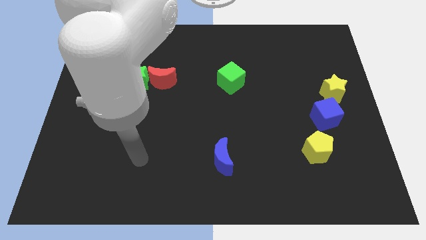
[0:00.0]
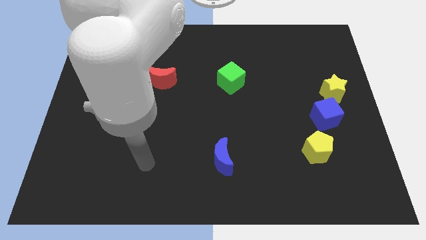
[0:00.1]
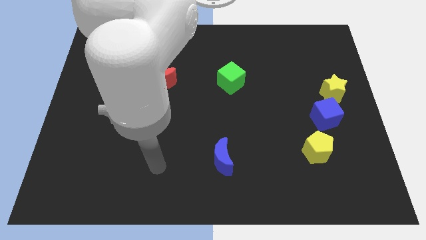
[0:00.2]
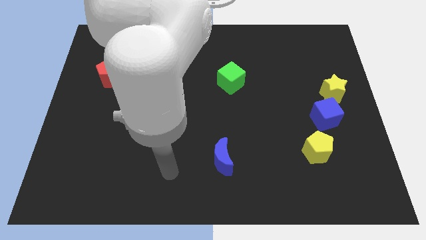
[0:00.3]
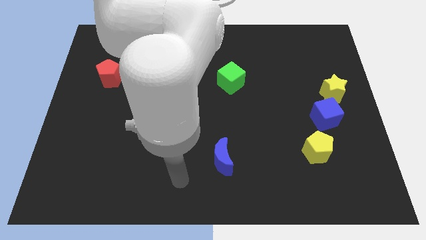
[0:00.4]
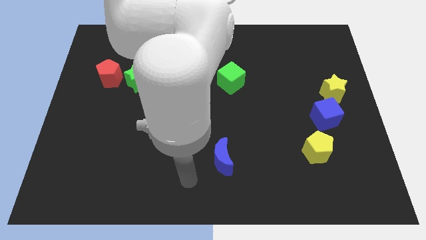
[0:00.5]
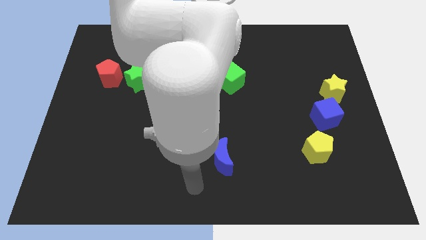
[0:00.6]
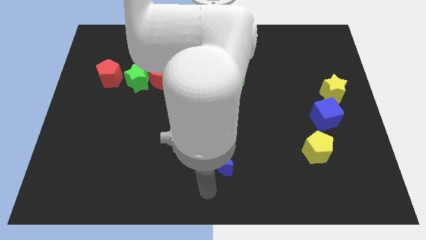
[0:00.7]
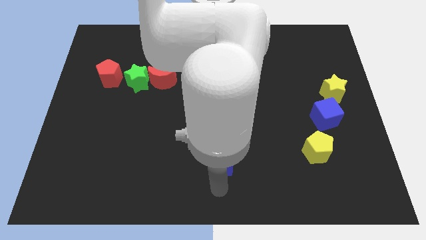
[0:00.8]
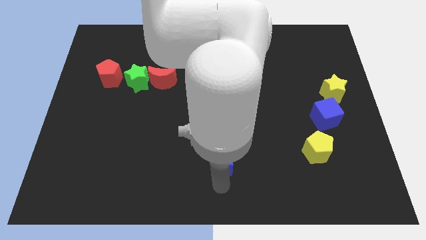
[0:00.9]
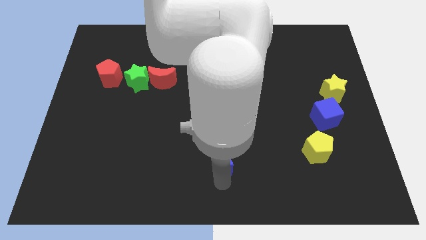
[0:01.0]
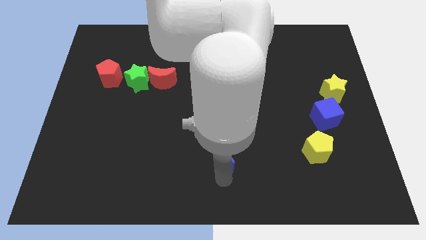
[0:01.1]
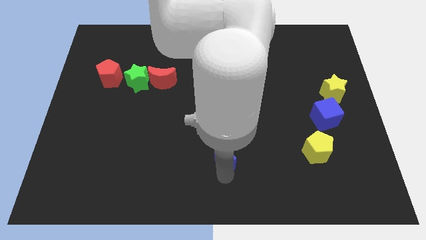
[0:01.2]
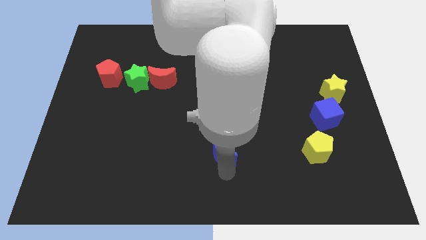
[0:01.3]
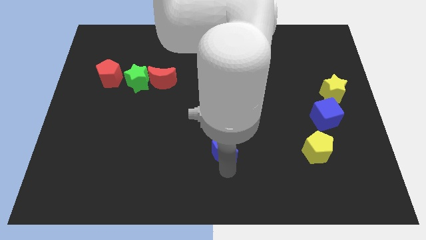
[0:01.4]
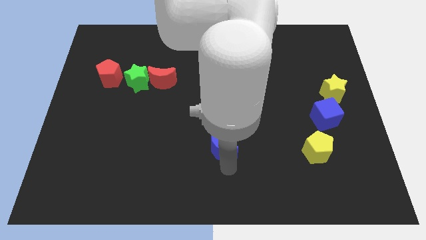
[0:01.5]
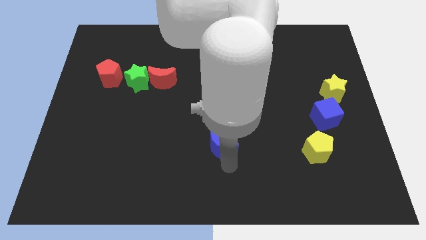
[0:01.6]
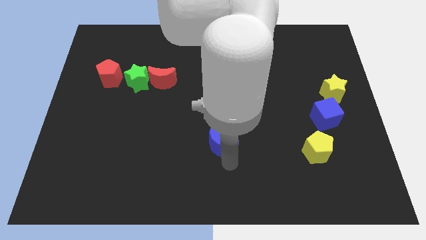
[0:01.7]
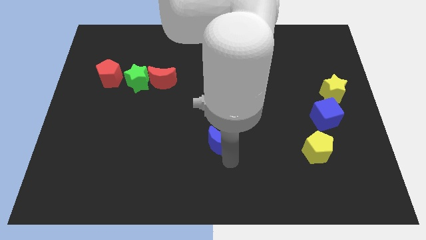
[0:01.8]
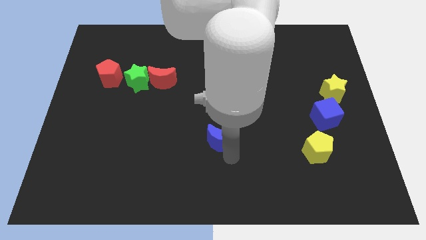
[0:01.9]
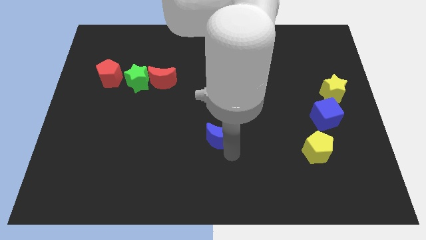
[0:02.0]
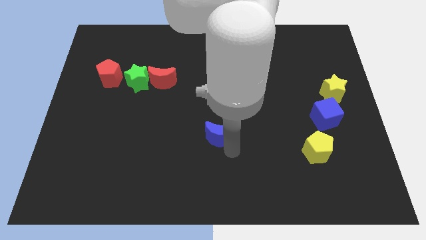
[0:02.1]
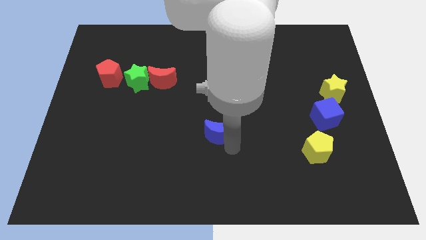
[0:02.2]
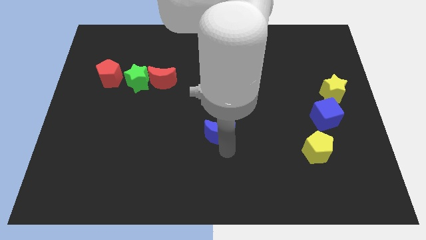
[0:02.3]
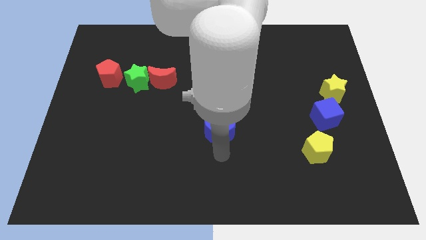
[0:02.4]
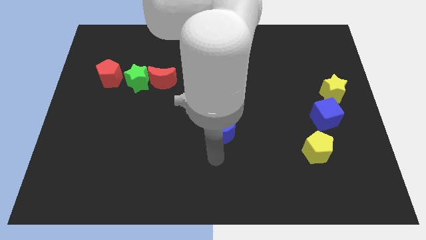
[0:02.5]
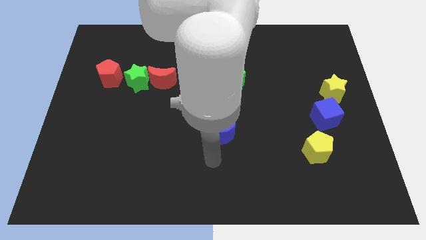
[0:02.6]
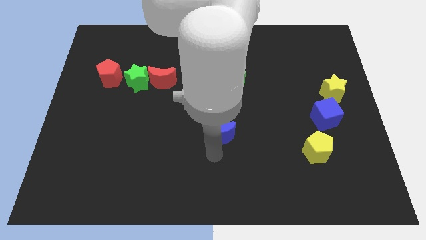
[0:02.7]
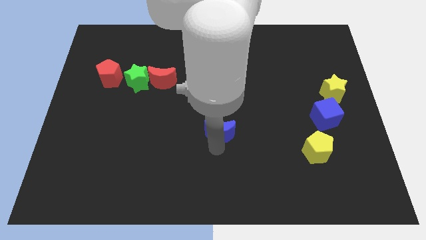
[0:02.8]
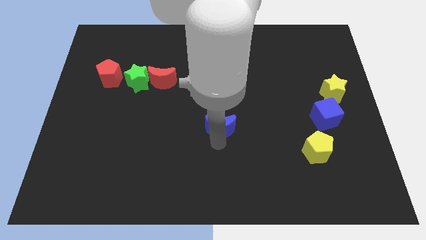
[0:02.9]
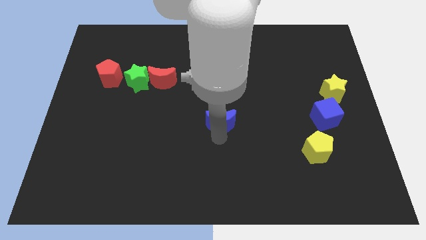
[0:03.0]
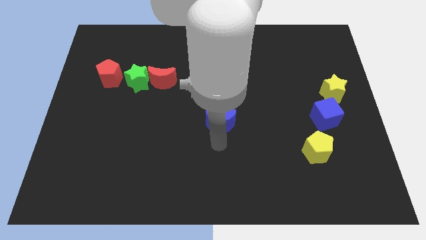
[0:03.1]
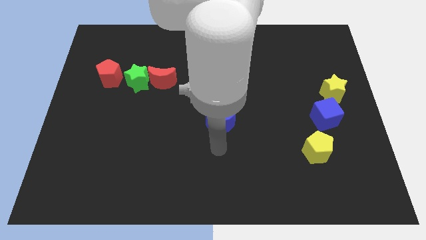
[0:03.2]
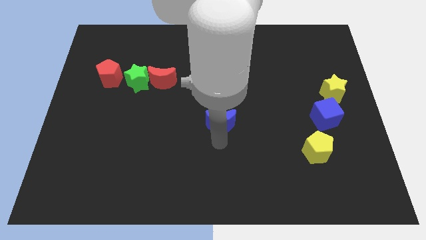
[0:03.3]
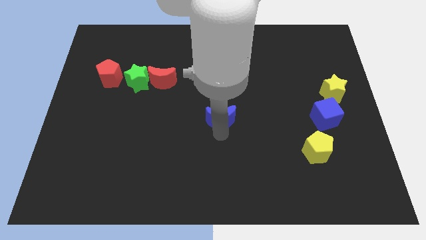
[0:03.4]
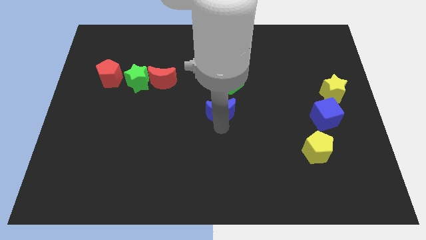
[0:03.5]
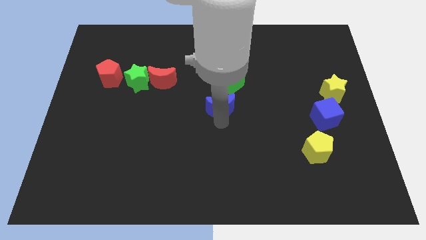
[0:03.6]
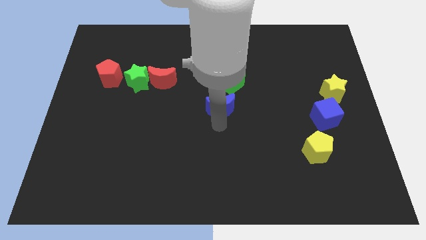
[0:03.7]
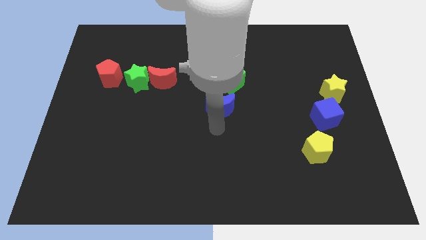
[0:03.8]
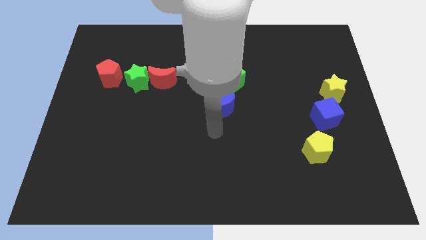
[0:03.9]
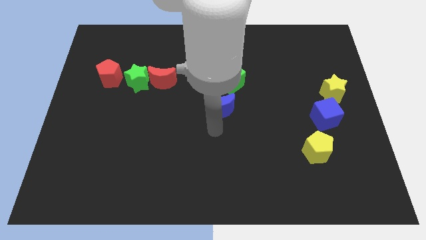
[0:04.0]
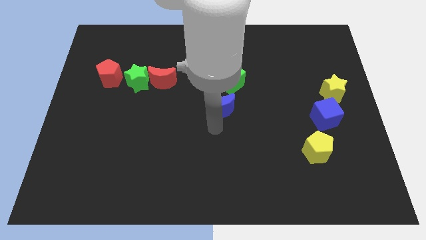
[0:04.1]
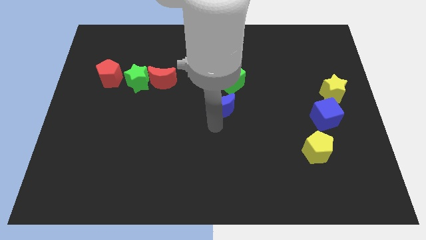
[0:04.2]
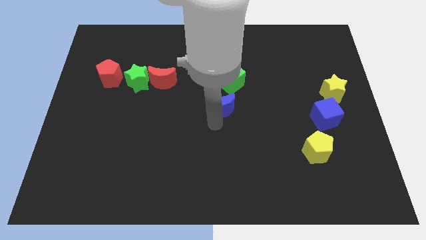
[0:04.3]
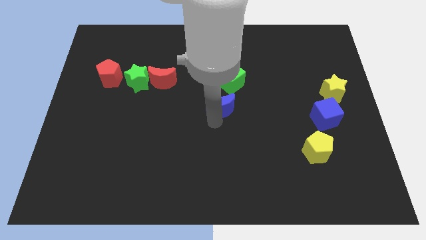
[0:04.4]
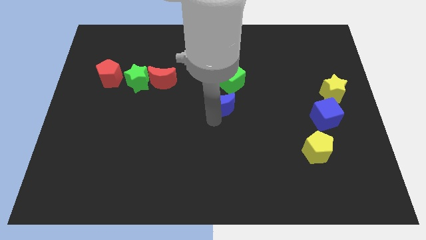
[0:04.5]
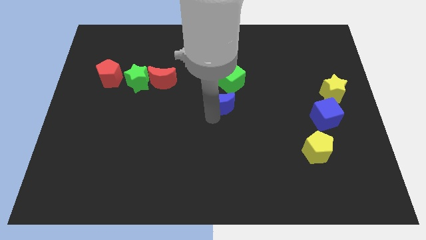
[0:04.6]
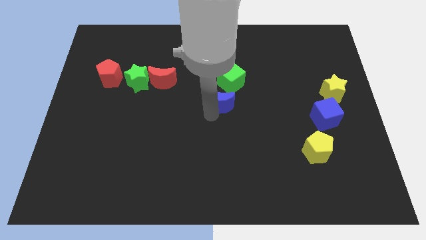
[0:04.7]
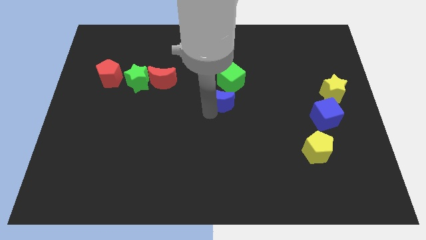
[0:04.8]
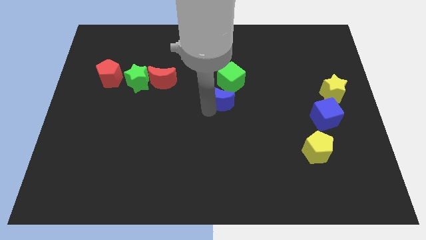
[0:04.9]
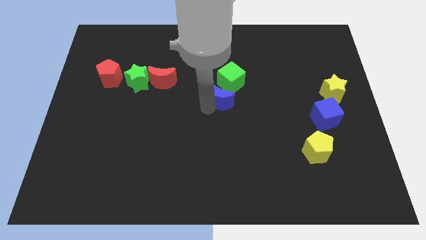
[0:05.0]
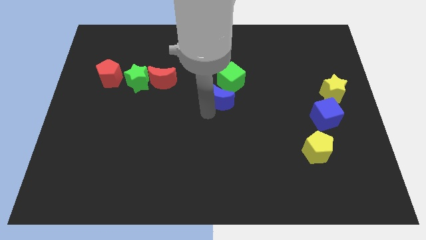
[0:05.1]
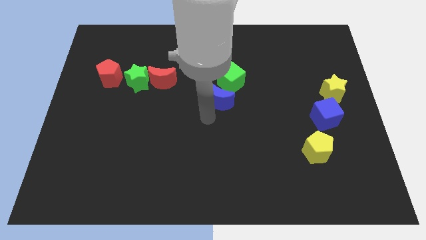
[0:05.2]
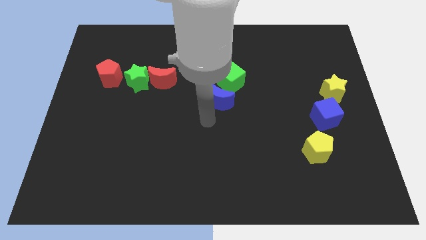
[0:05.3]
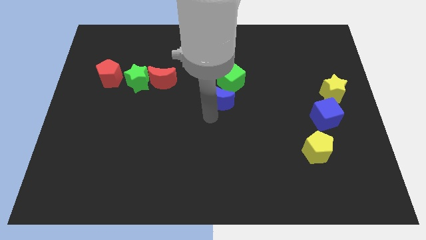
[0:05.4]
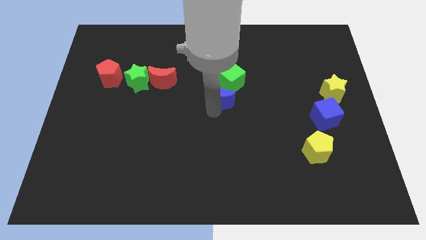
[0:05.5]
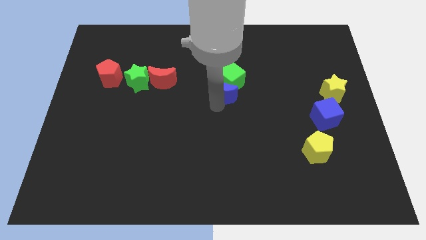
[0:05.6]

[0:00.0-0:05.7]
slide the blue moon close to the green cube

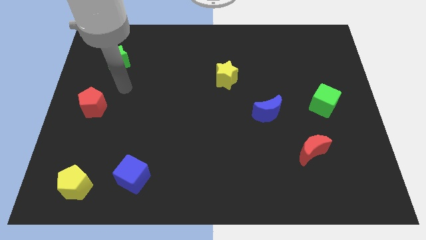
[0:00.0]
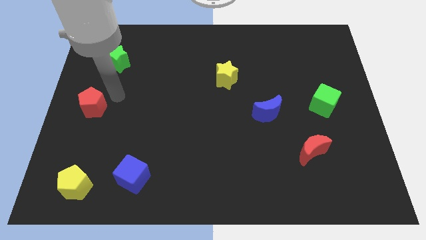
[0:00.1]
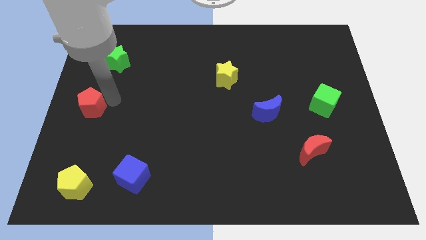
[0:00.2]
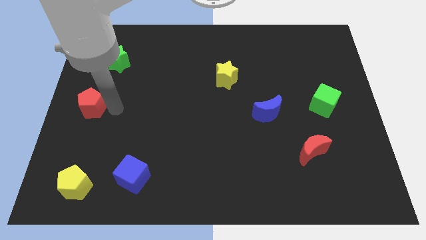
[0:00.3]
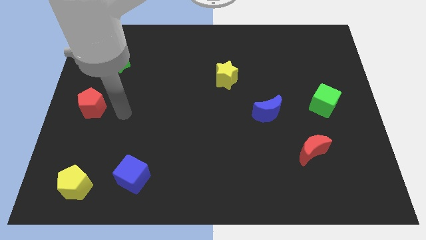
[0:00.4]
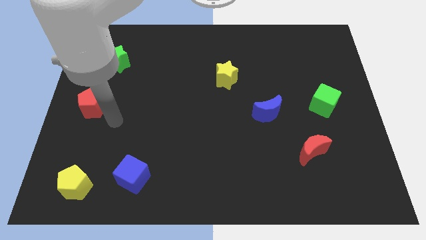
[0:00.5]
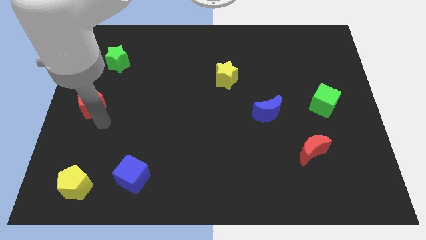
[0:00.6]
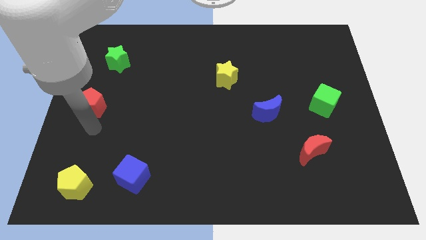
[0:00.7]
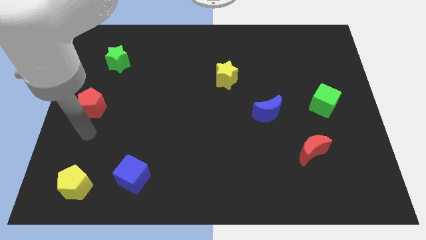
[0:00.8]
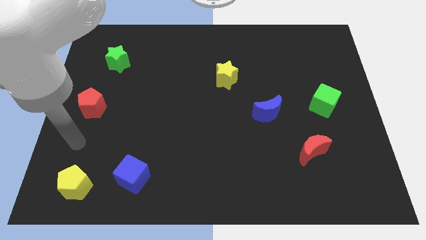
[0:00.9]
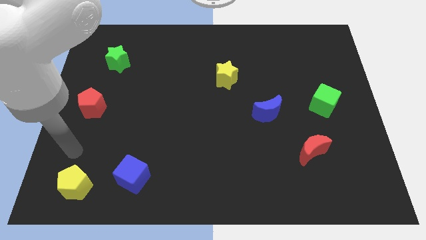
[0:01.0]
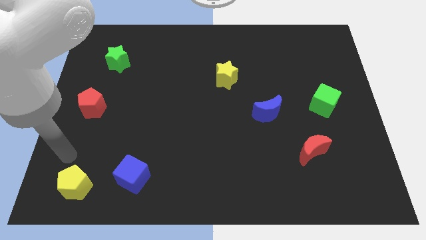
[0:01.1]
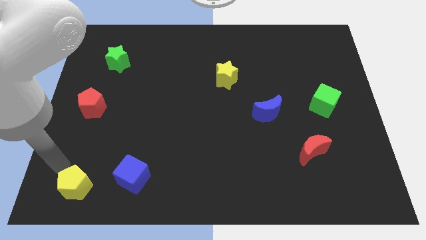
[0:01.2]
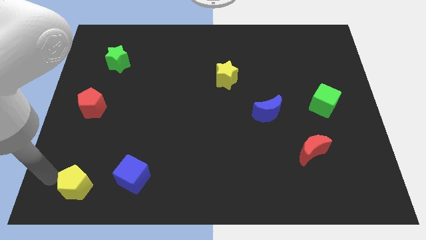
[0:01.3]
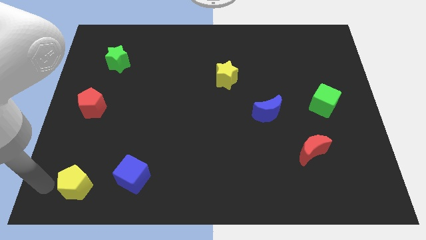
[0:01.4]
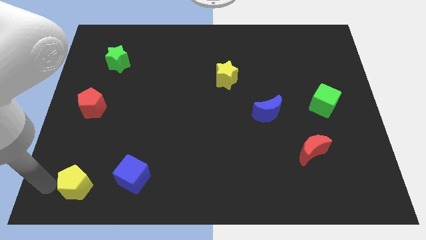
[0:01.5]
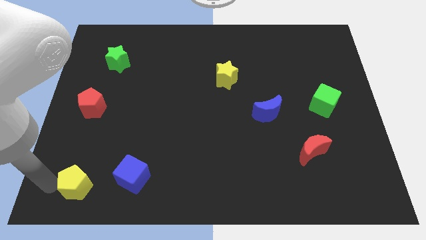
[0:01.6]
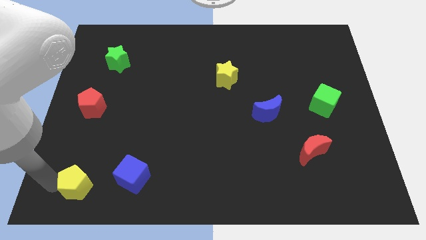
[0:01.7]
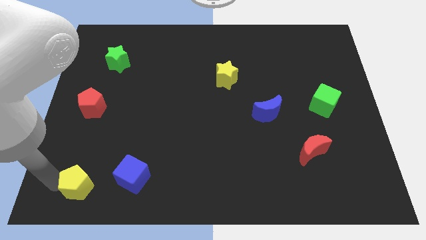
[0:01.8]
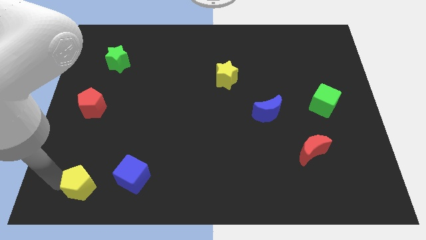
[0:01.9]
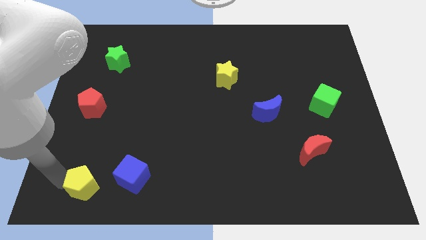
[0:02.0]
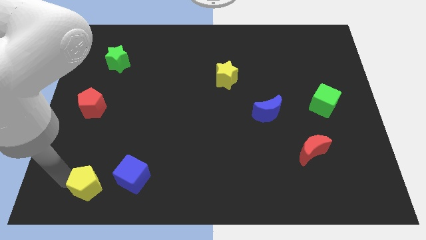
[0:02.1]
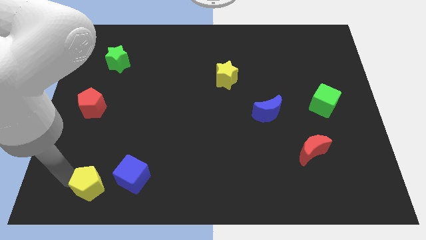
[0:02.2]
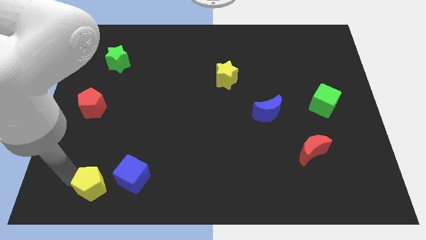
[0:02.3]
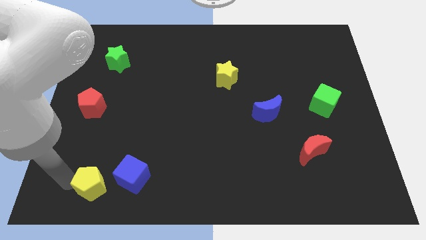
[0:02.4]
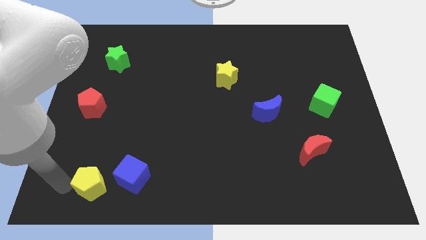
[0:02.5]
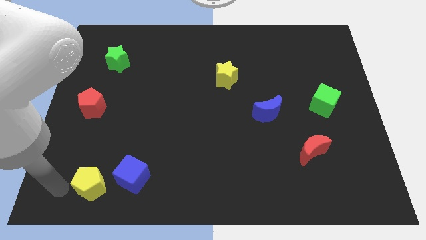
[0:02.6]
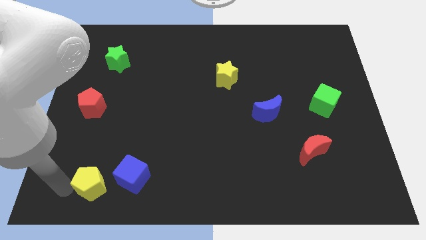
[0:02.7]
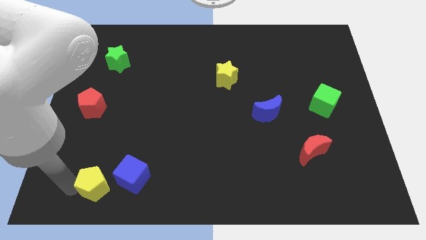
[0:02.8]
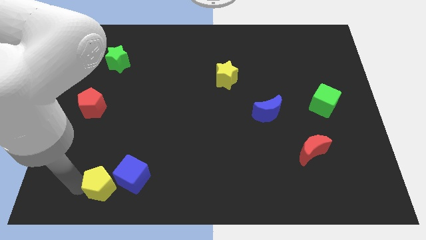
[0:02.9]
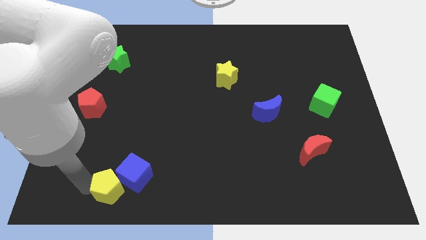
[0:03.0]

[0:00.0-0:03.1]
slide the yellow pentagon towards the blue cube
